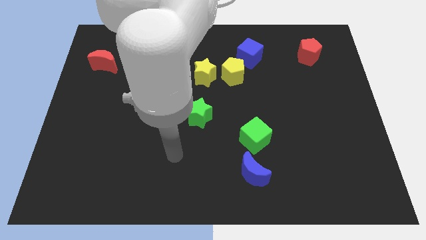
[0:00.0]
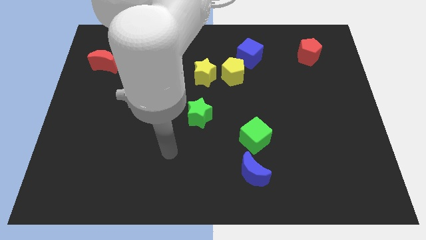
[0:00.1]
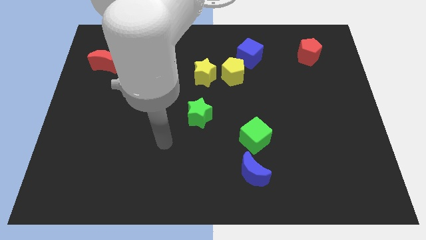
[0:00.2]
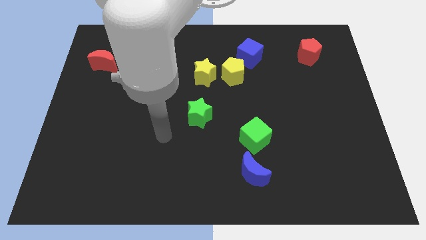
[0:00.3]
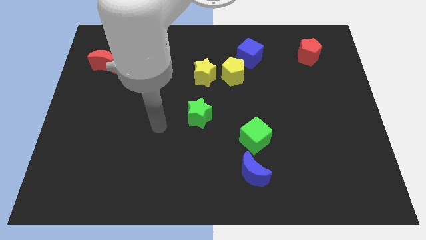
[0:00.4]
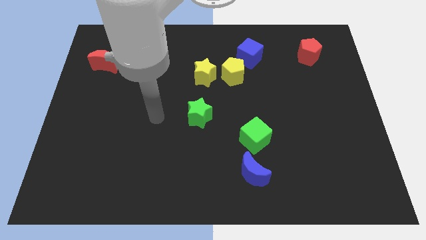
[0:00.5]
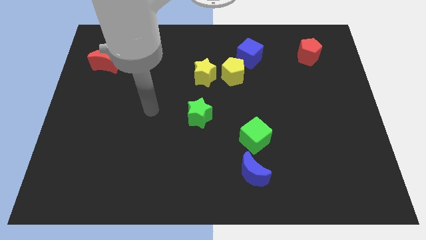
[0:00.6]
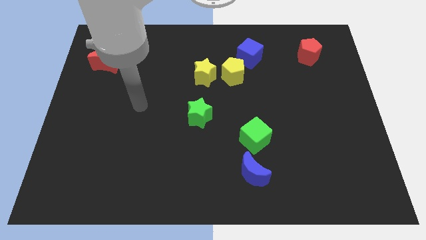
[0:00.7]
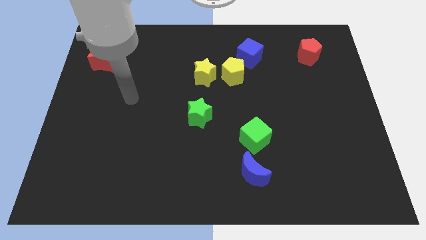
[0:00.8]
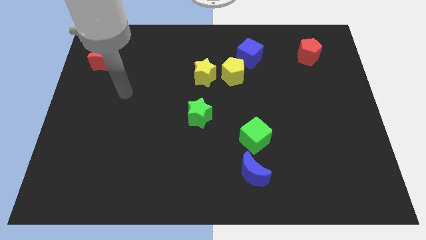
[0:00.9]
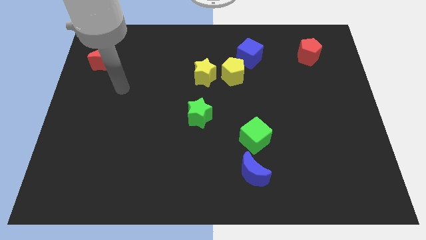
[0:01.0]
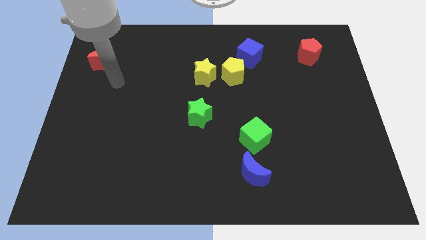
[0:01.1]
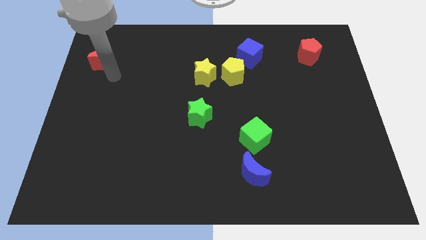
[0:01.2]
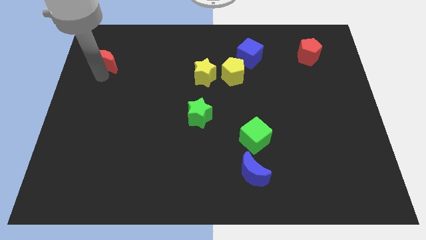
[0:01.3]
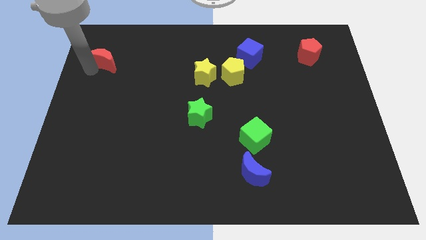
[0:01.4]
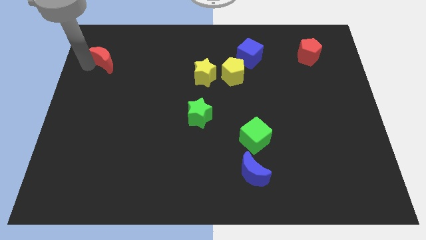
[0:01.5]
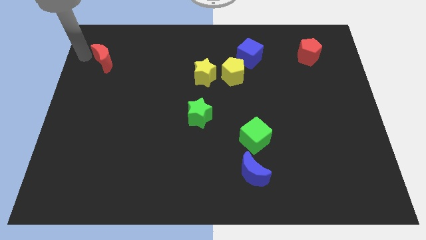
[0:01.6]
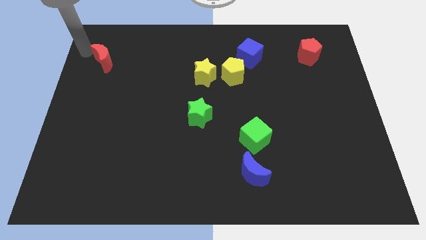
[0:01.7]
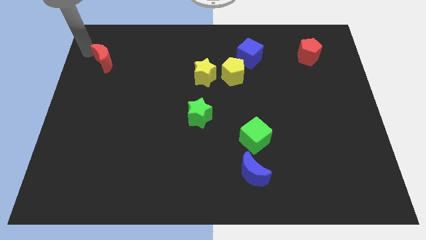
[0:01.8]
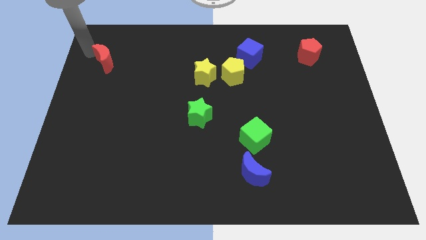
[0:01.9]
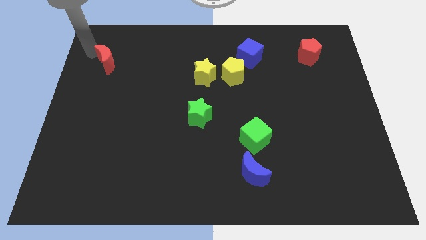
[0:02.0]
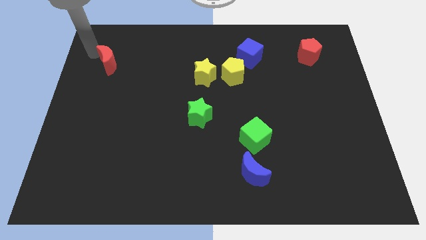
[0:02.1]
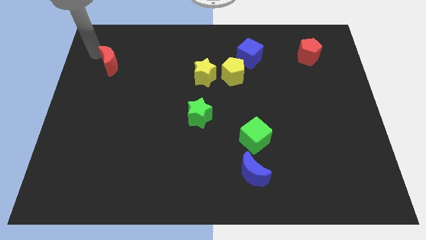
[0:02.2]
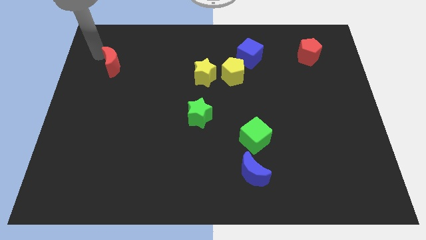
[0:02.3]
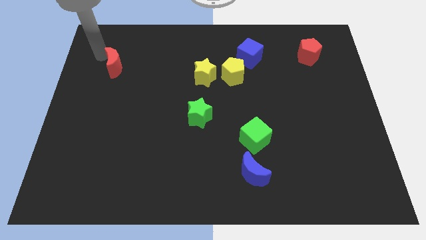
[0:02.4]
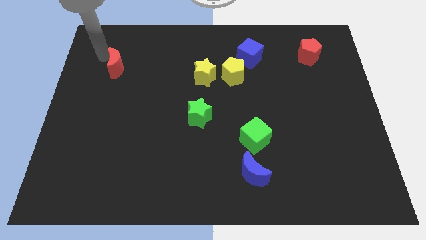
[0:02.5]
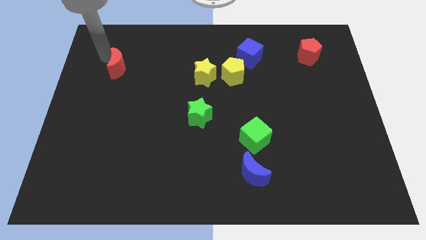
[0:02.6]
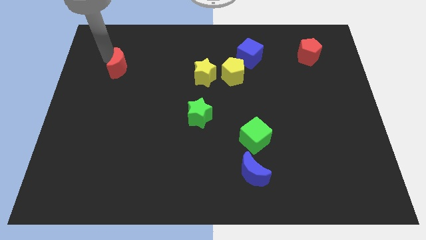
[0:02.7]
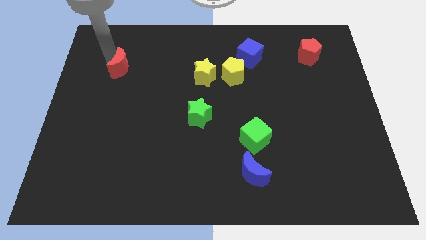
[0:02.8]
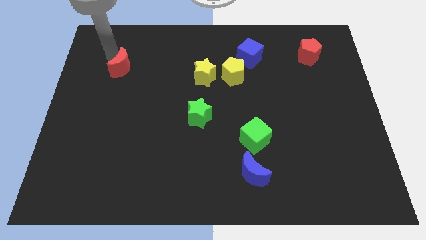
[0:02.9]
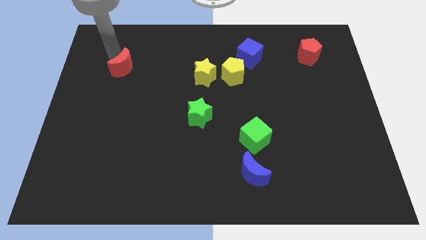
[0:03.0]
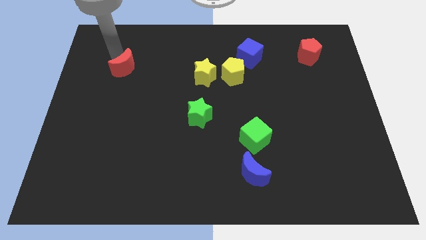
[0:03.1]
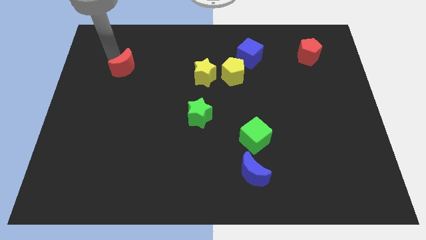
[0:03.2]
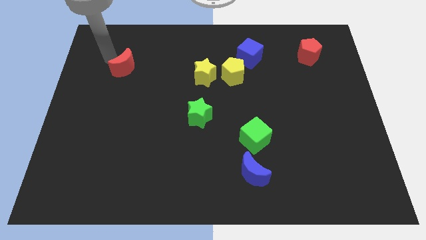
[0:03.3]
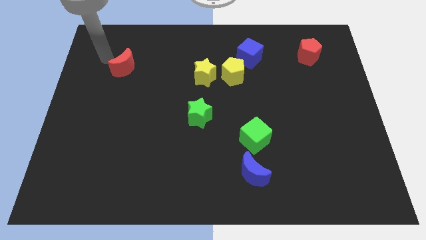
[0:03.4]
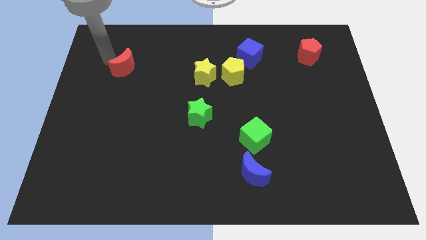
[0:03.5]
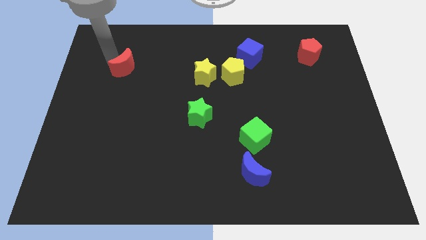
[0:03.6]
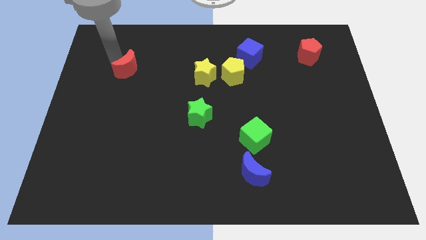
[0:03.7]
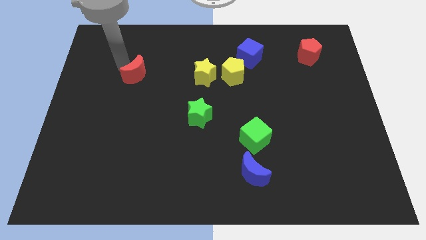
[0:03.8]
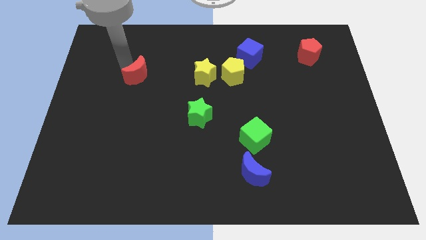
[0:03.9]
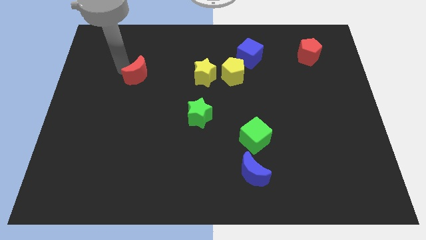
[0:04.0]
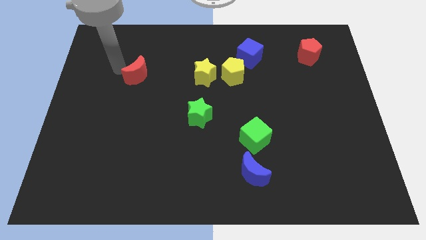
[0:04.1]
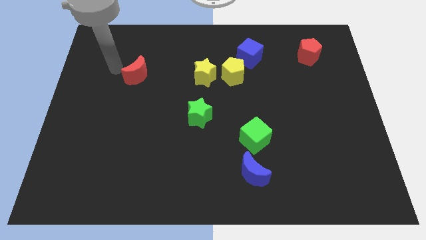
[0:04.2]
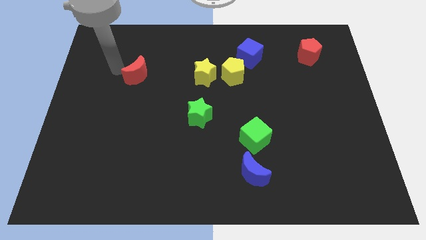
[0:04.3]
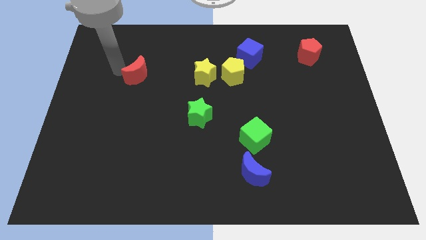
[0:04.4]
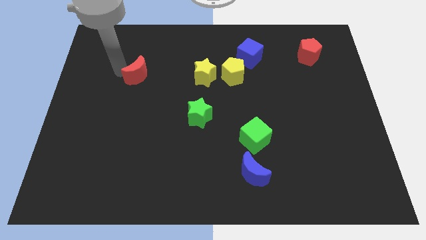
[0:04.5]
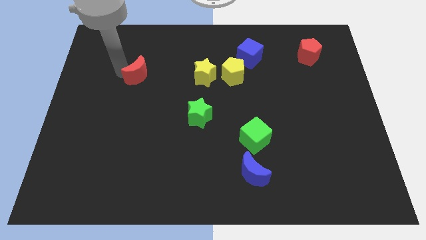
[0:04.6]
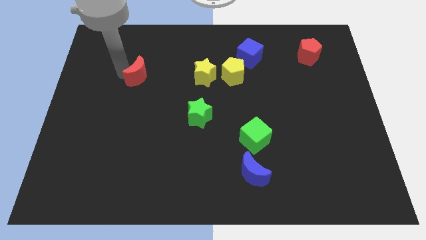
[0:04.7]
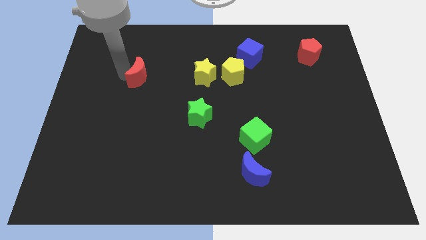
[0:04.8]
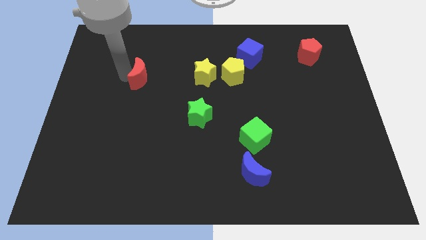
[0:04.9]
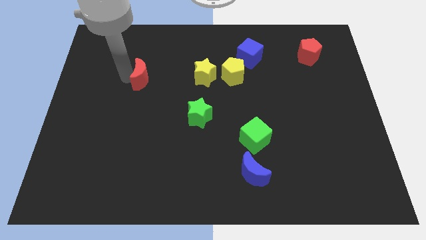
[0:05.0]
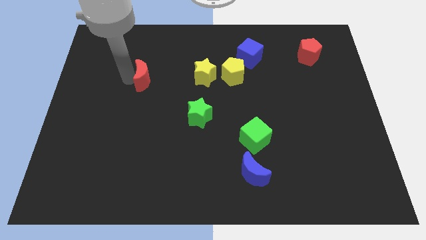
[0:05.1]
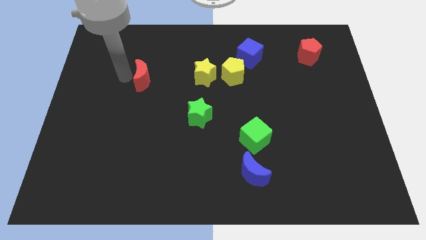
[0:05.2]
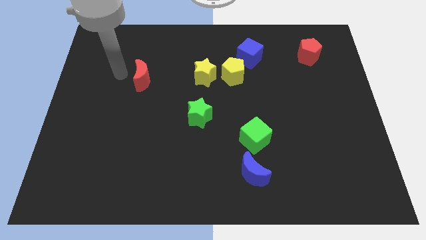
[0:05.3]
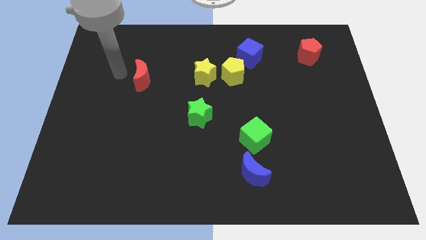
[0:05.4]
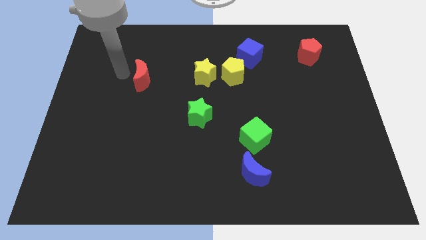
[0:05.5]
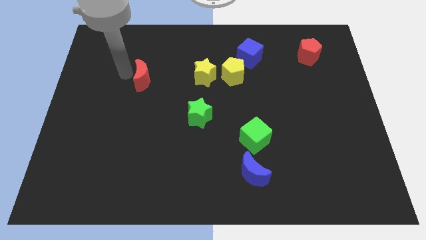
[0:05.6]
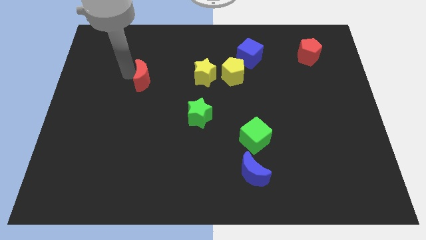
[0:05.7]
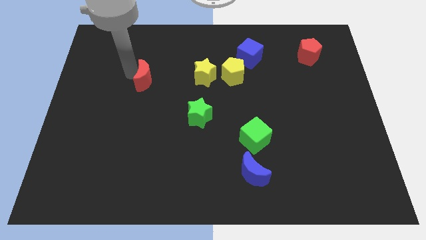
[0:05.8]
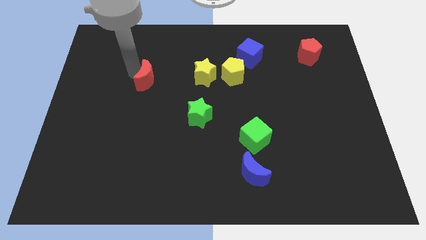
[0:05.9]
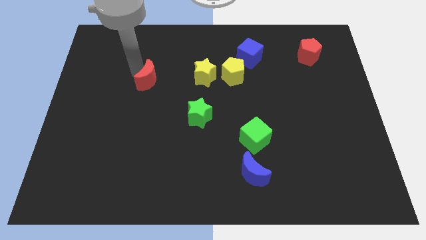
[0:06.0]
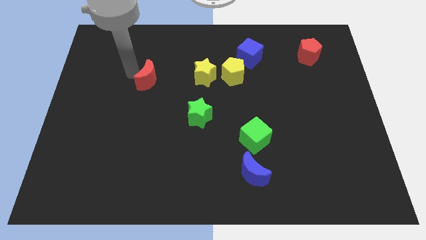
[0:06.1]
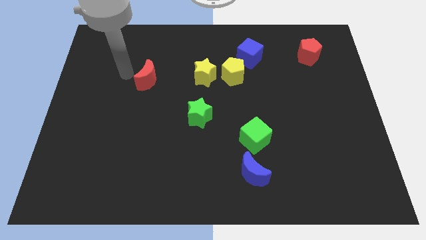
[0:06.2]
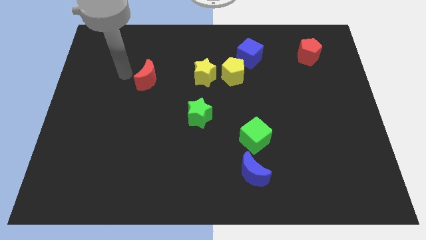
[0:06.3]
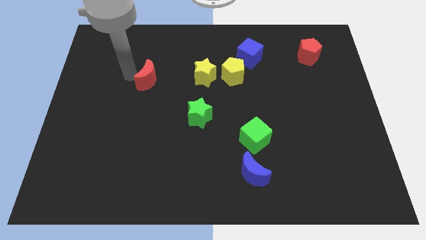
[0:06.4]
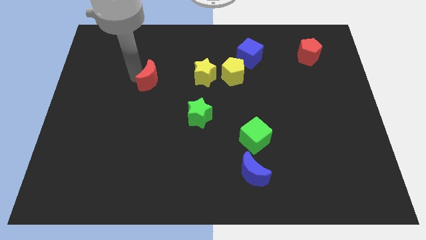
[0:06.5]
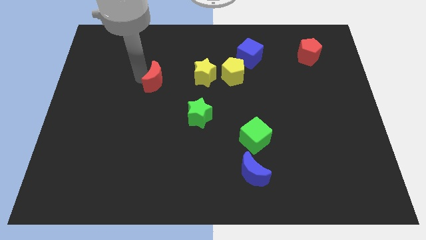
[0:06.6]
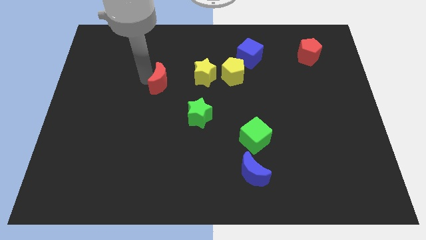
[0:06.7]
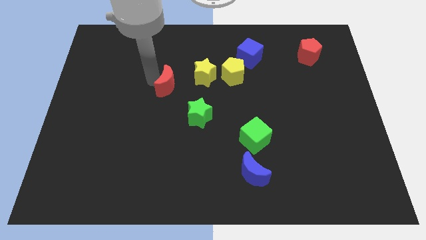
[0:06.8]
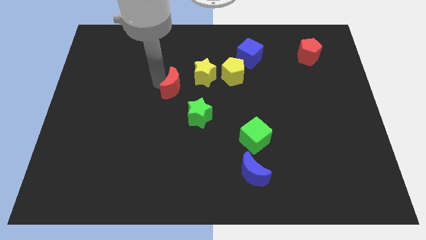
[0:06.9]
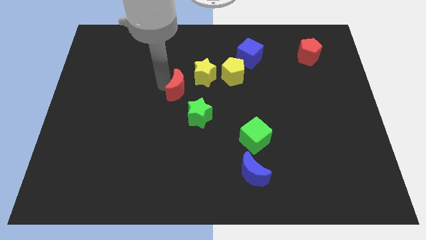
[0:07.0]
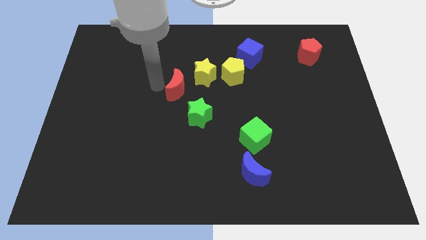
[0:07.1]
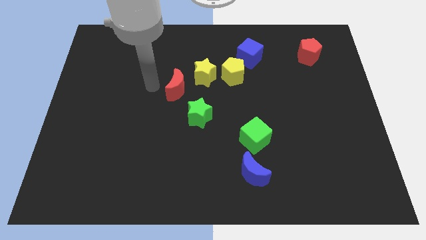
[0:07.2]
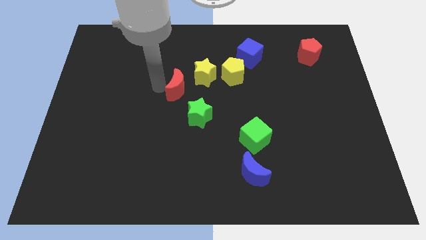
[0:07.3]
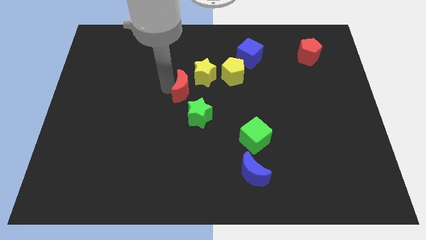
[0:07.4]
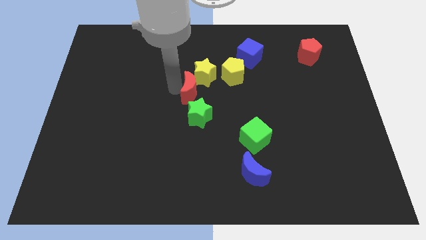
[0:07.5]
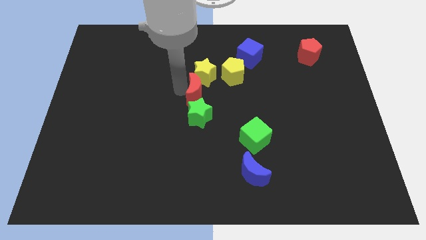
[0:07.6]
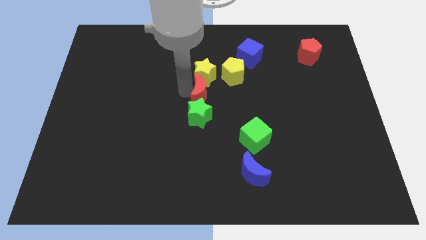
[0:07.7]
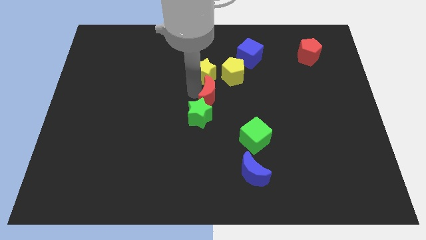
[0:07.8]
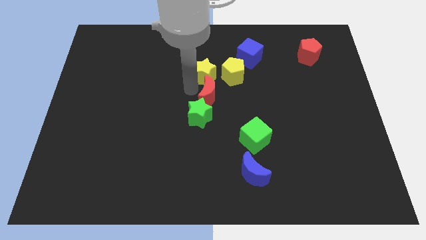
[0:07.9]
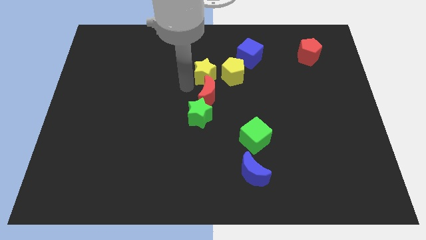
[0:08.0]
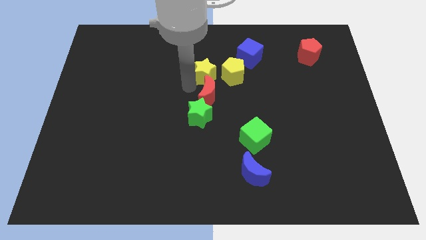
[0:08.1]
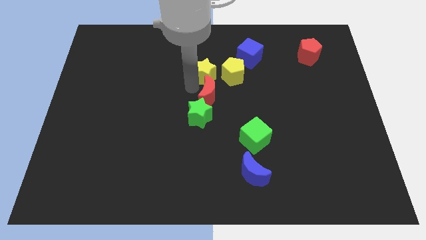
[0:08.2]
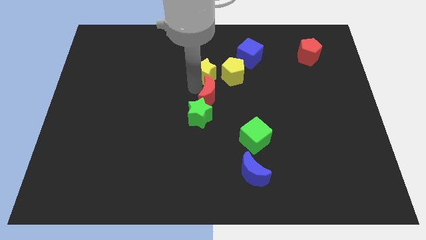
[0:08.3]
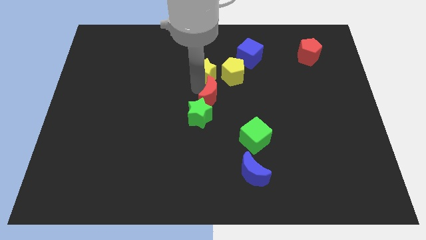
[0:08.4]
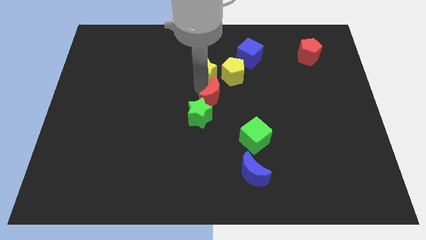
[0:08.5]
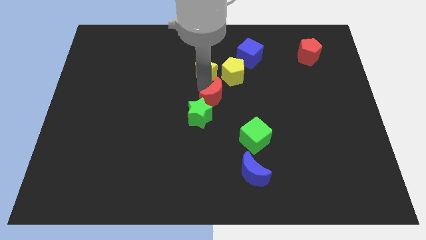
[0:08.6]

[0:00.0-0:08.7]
slide the red moon to the bottom of the yellow pentagon
